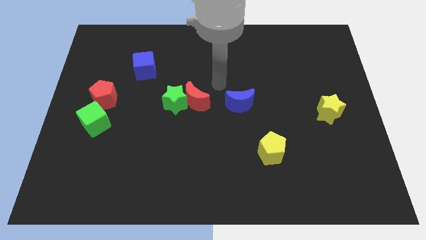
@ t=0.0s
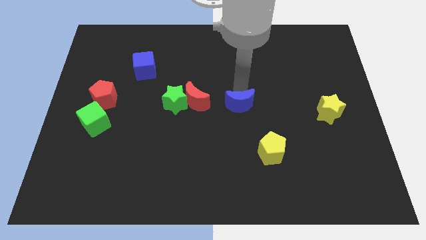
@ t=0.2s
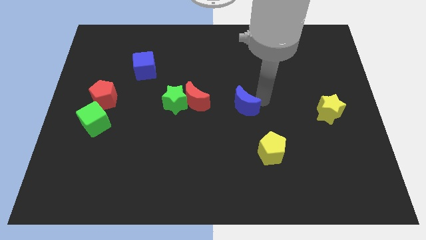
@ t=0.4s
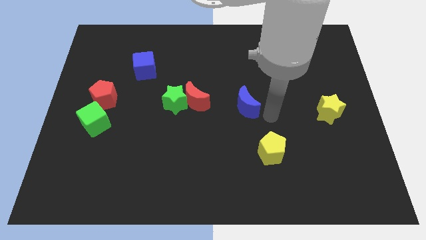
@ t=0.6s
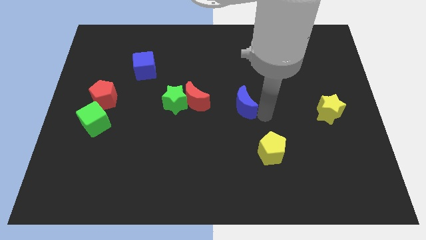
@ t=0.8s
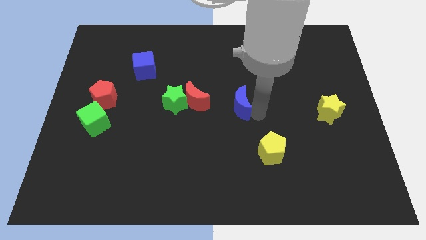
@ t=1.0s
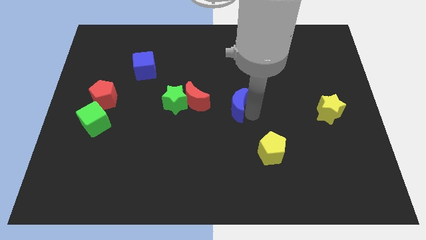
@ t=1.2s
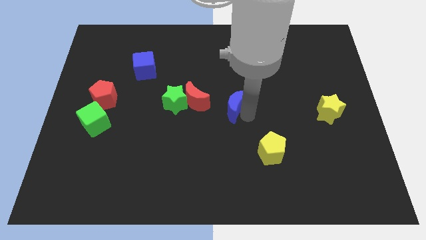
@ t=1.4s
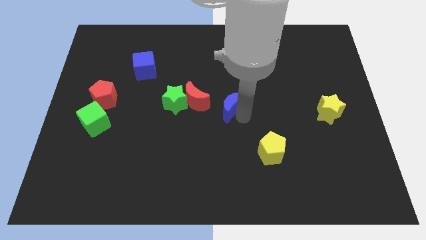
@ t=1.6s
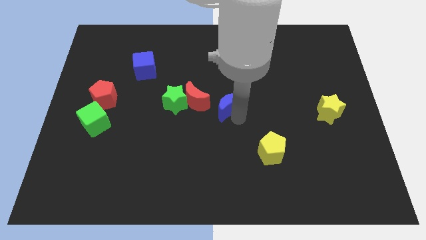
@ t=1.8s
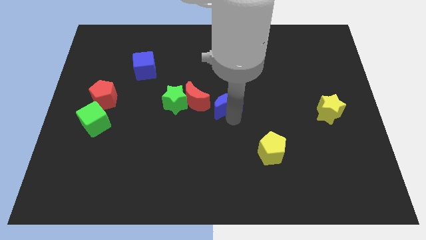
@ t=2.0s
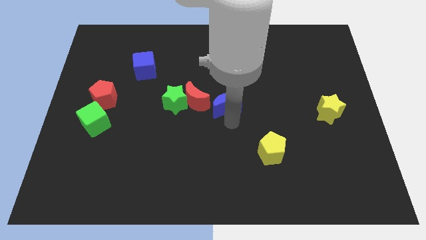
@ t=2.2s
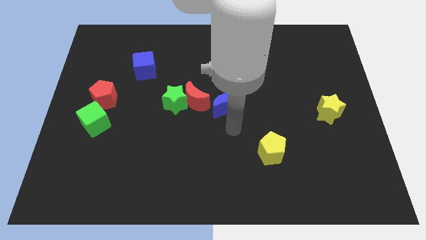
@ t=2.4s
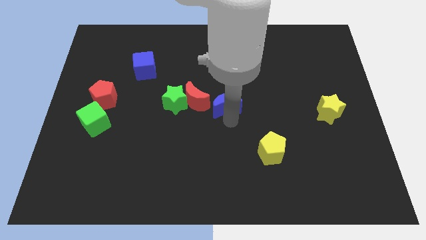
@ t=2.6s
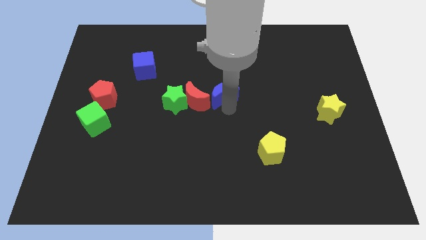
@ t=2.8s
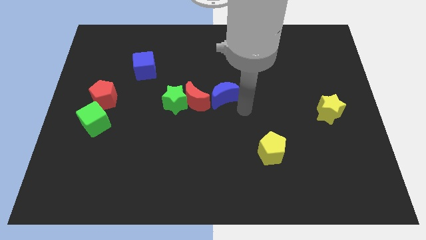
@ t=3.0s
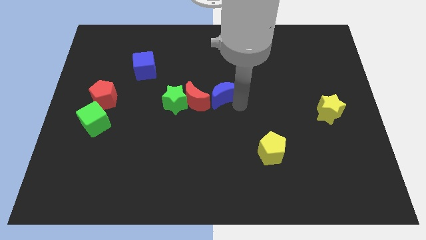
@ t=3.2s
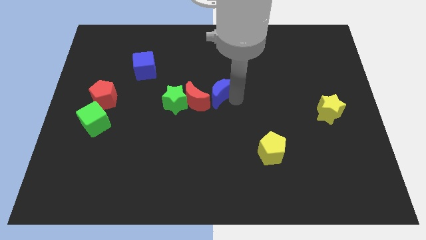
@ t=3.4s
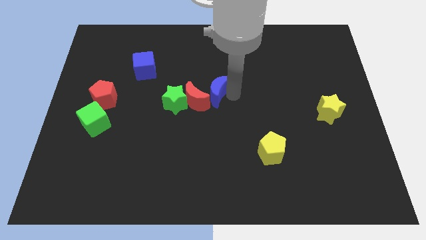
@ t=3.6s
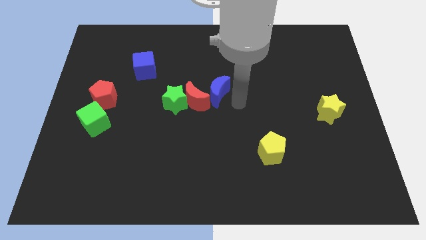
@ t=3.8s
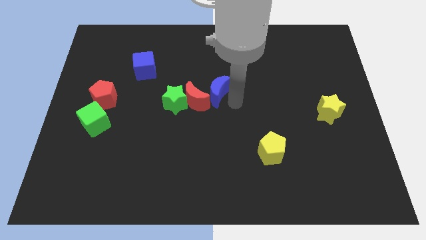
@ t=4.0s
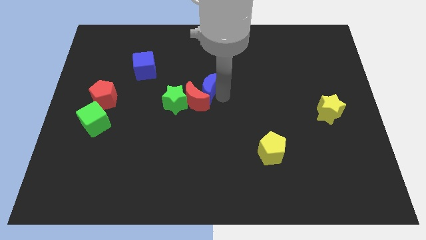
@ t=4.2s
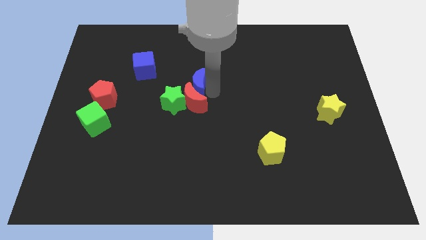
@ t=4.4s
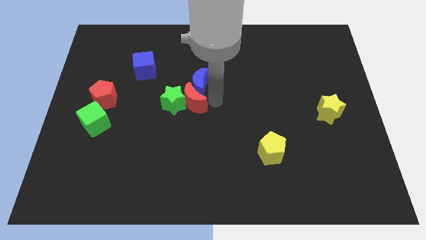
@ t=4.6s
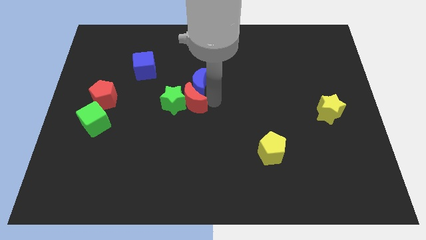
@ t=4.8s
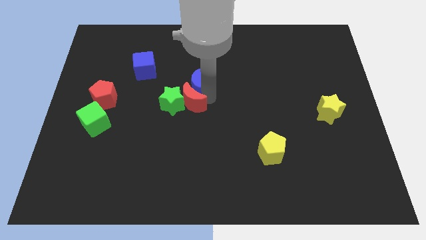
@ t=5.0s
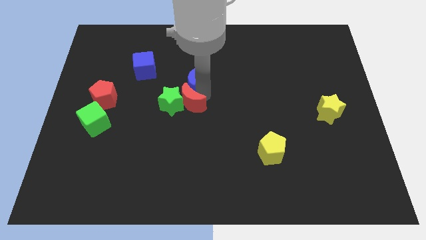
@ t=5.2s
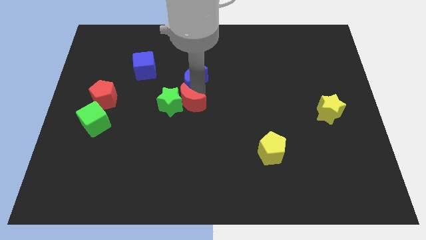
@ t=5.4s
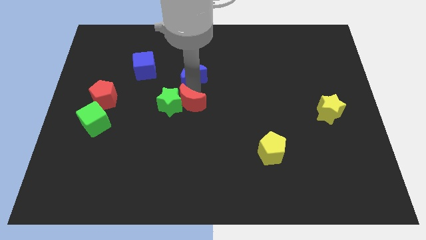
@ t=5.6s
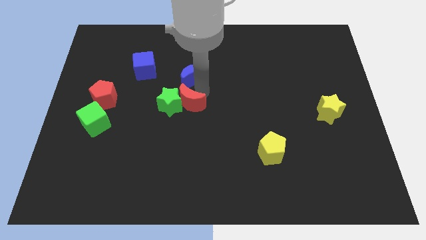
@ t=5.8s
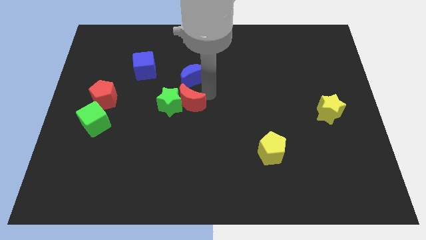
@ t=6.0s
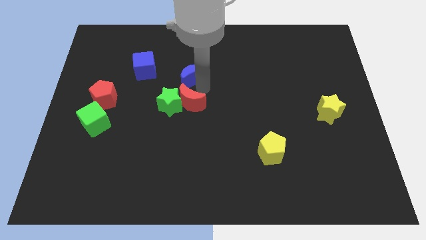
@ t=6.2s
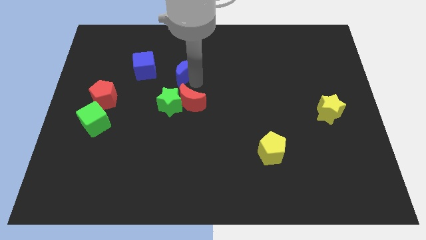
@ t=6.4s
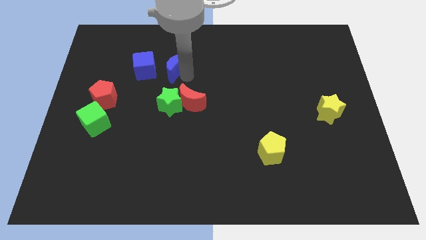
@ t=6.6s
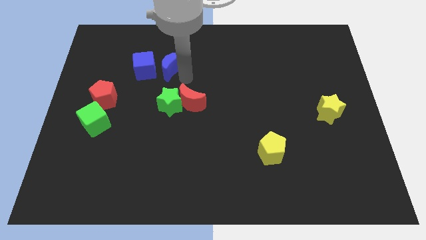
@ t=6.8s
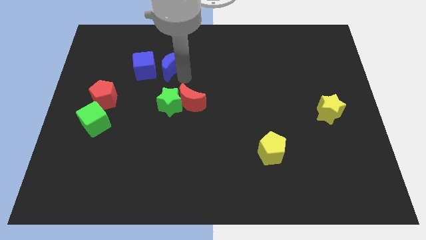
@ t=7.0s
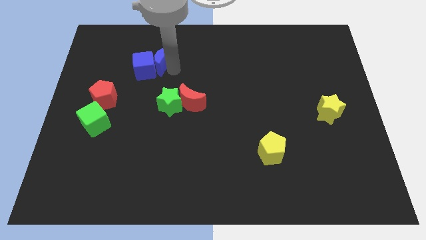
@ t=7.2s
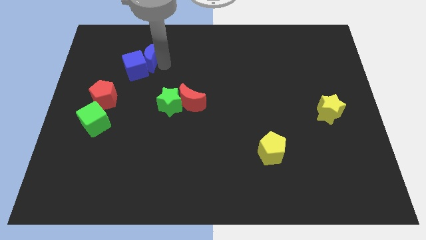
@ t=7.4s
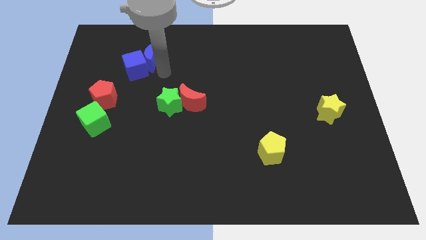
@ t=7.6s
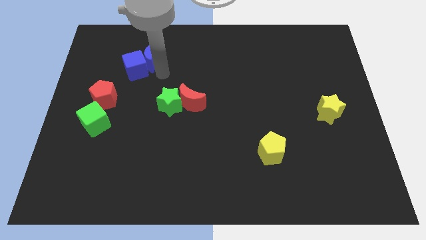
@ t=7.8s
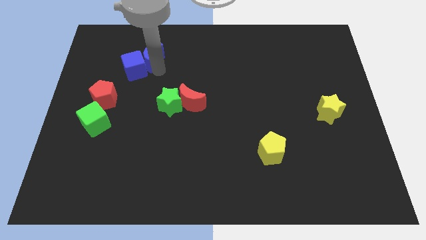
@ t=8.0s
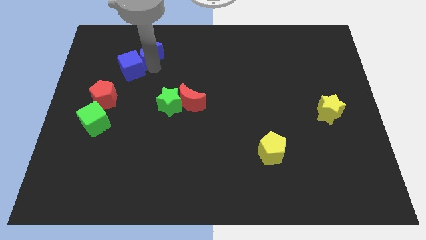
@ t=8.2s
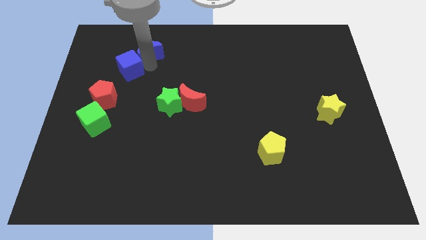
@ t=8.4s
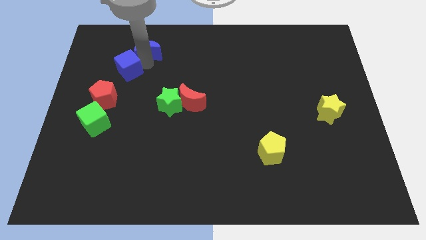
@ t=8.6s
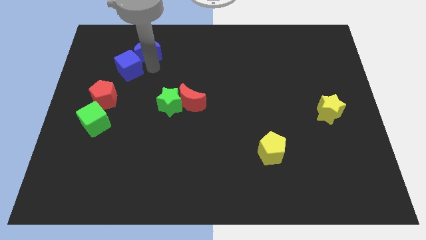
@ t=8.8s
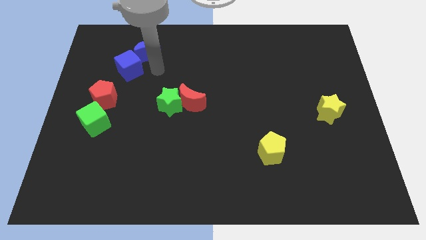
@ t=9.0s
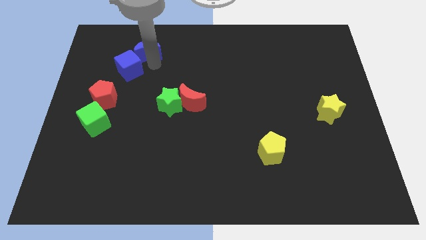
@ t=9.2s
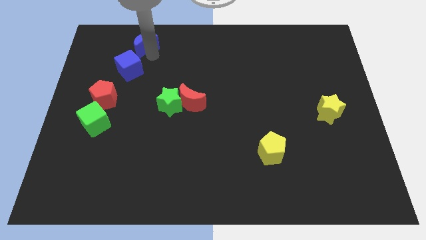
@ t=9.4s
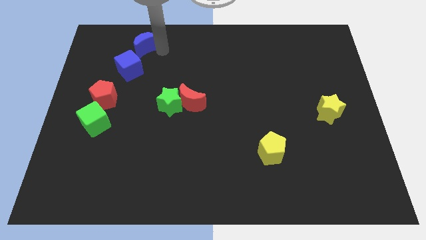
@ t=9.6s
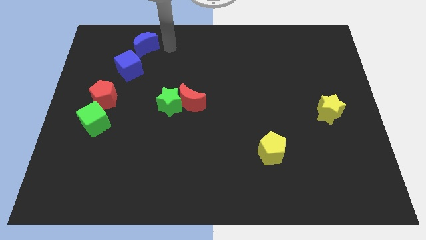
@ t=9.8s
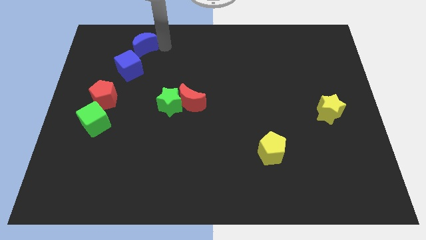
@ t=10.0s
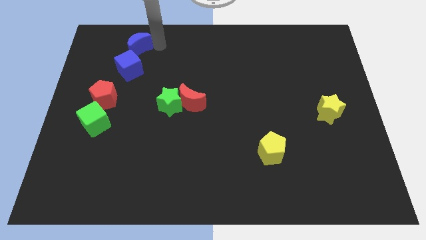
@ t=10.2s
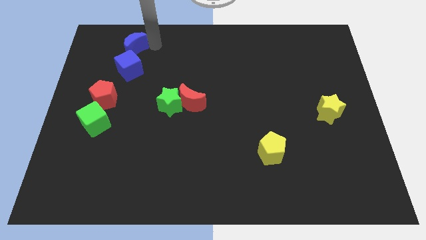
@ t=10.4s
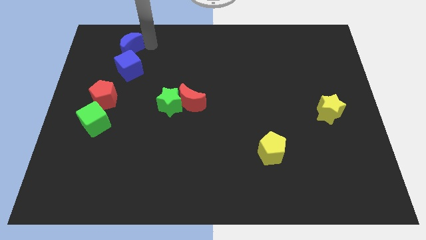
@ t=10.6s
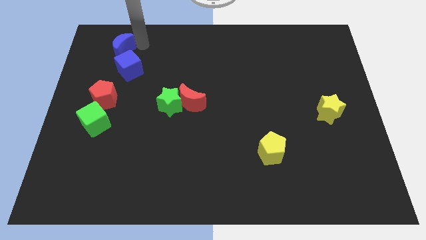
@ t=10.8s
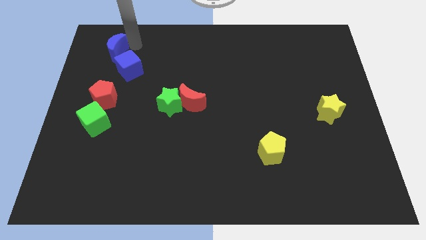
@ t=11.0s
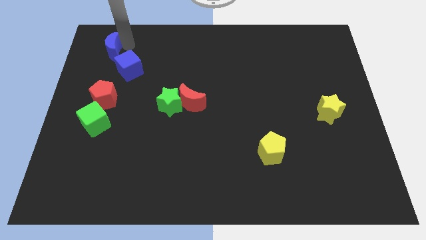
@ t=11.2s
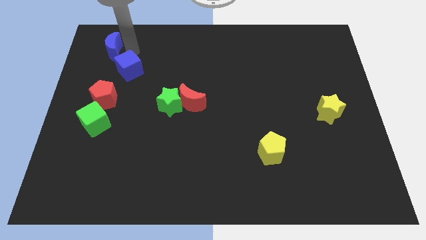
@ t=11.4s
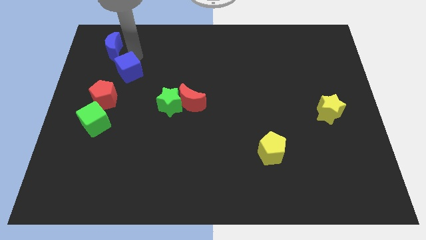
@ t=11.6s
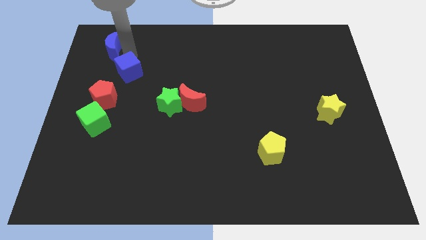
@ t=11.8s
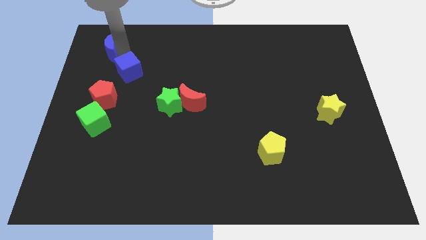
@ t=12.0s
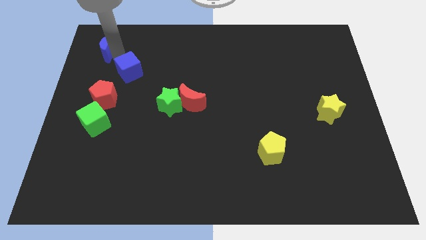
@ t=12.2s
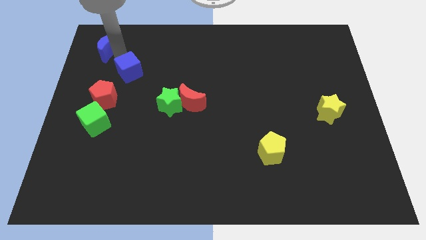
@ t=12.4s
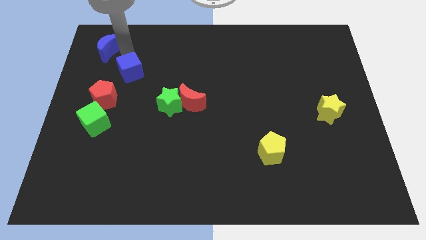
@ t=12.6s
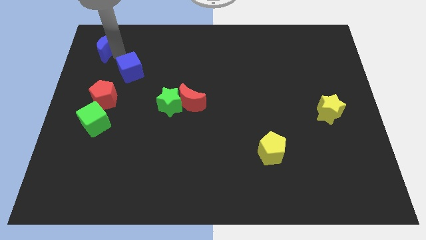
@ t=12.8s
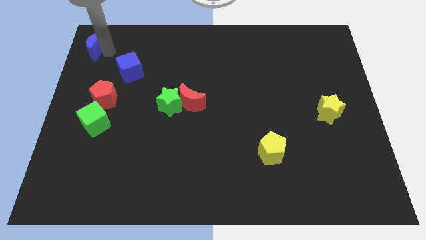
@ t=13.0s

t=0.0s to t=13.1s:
put the blue moon to the top left of the board

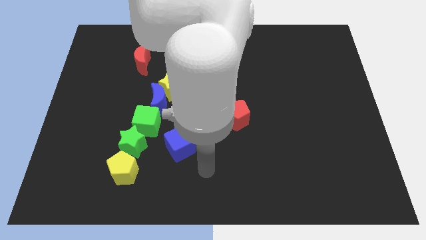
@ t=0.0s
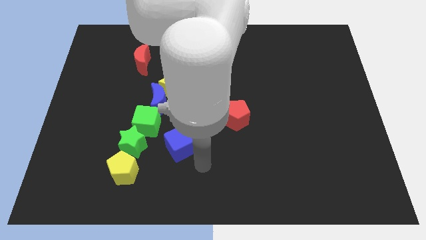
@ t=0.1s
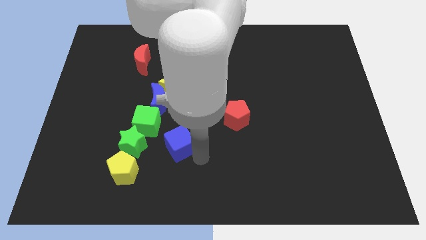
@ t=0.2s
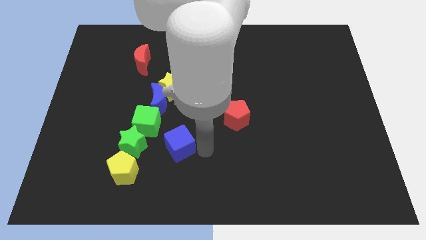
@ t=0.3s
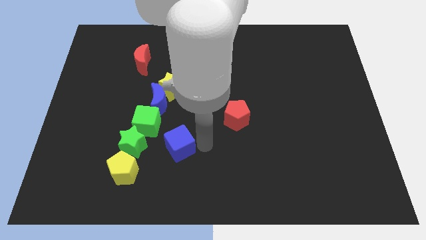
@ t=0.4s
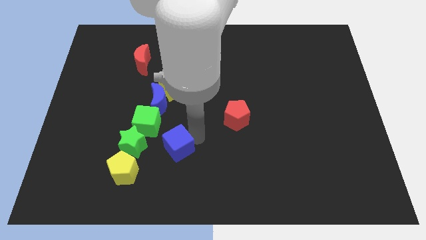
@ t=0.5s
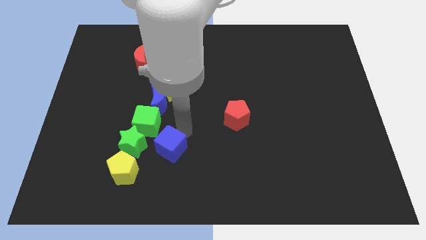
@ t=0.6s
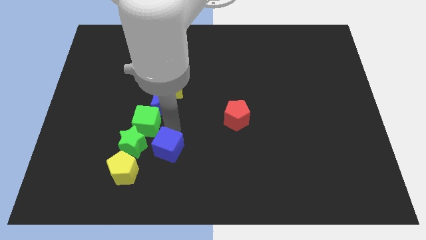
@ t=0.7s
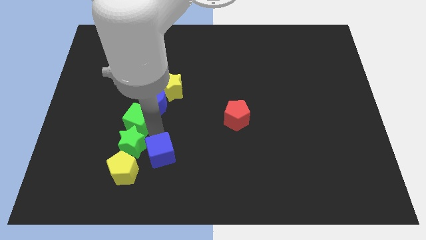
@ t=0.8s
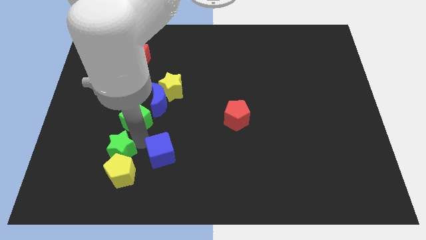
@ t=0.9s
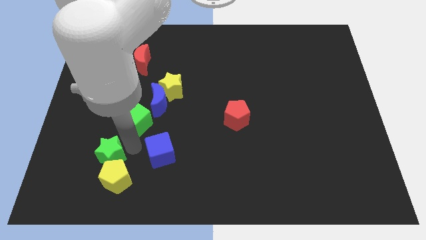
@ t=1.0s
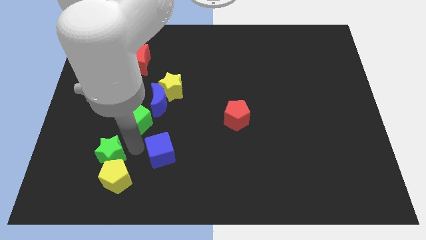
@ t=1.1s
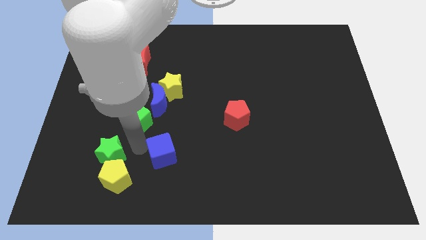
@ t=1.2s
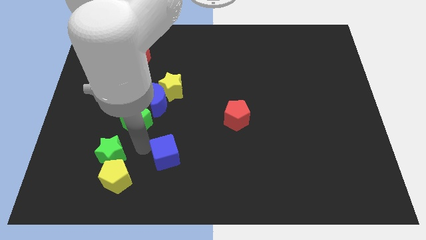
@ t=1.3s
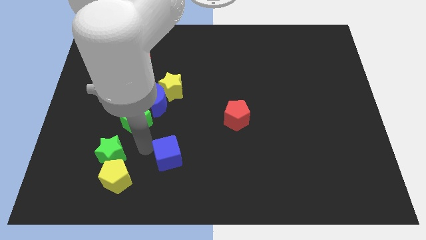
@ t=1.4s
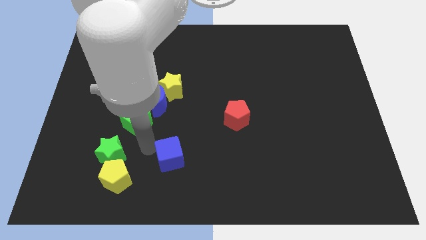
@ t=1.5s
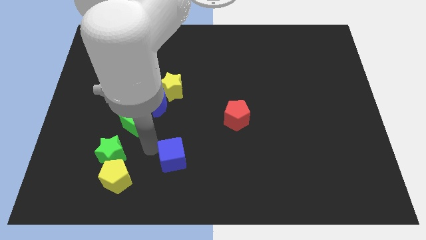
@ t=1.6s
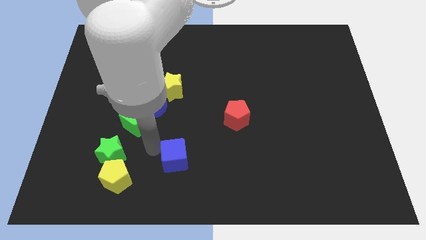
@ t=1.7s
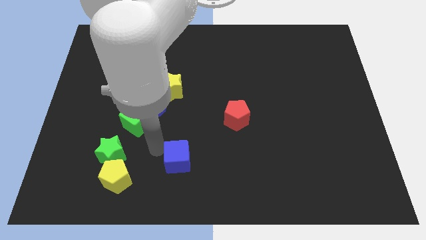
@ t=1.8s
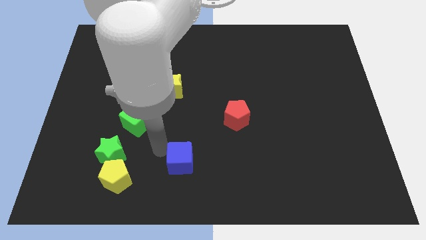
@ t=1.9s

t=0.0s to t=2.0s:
push the blue cube to the bottom
